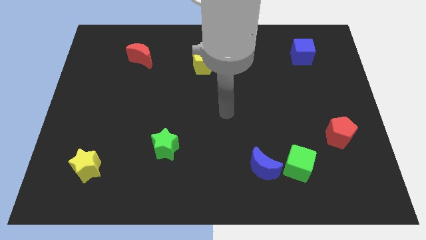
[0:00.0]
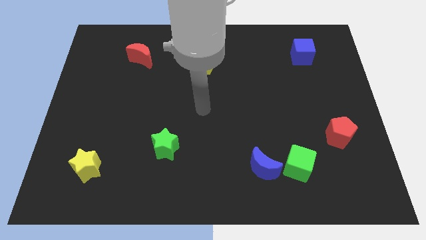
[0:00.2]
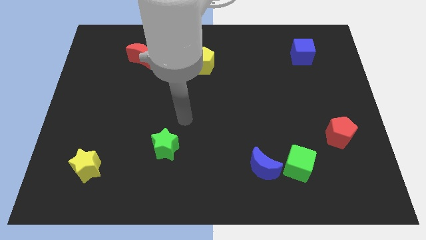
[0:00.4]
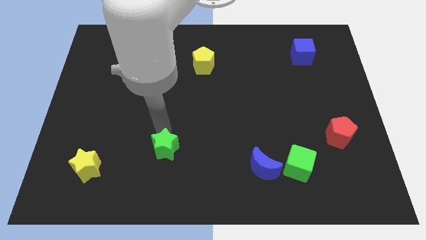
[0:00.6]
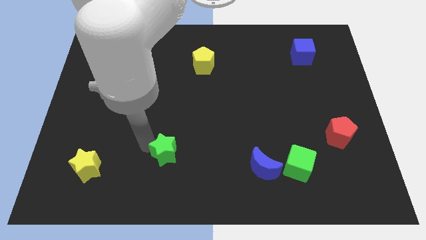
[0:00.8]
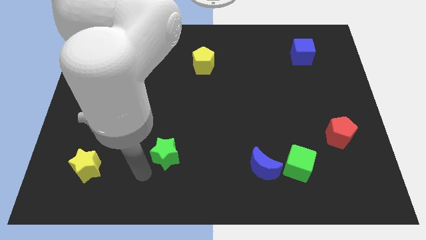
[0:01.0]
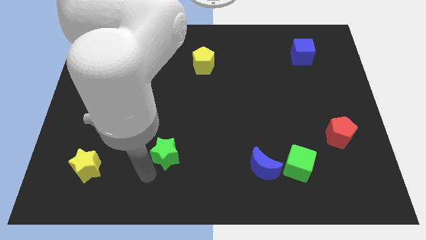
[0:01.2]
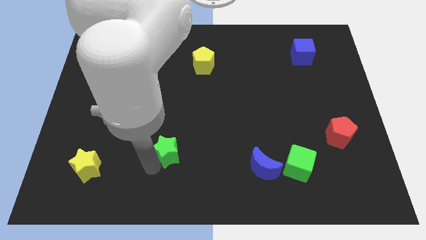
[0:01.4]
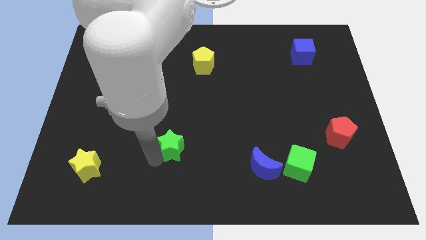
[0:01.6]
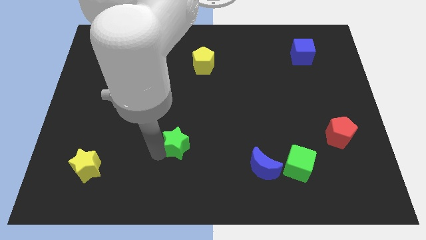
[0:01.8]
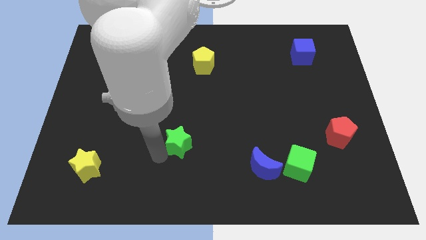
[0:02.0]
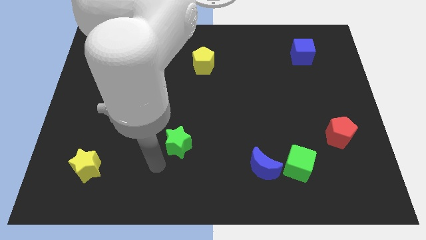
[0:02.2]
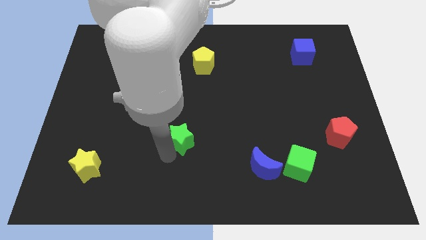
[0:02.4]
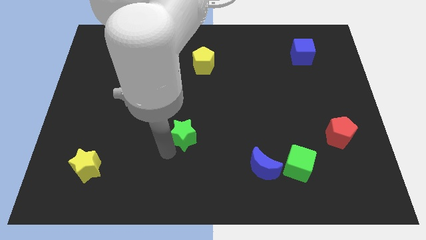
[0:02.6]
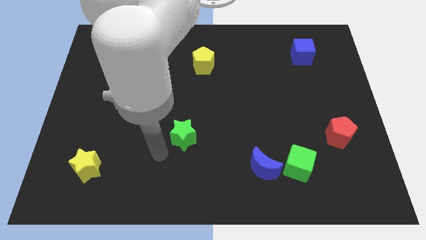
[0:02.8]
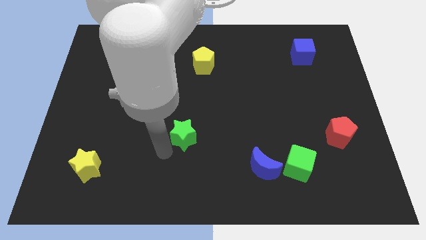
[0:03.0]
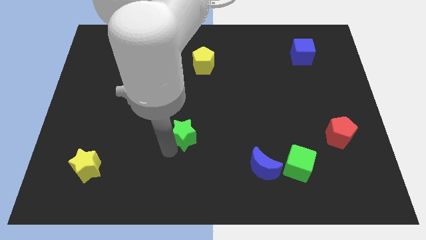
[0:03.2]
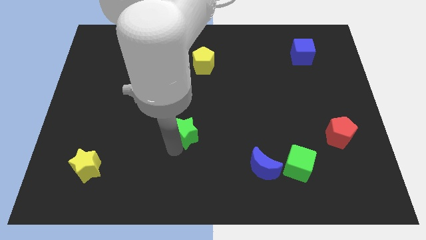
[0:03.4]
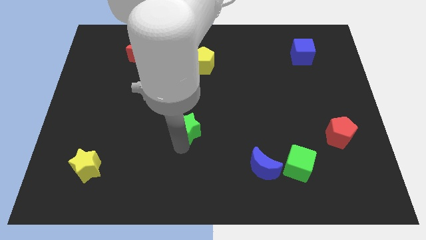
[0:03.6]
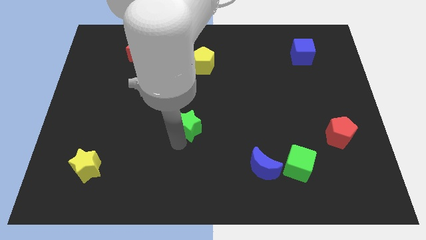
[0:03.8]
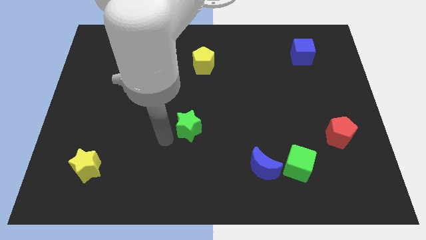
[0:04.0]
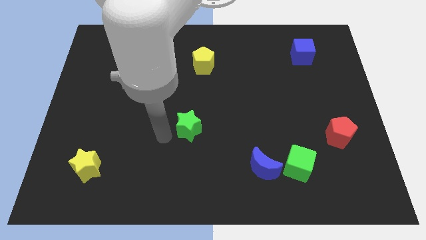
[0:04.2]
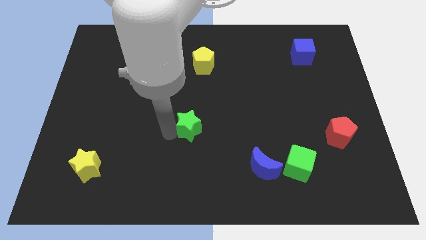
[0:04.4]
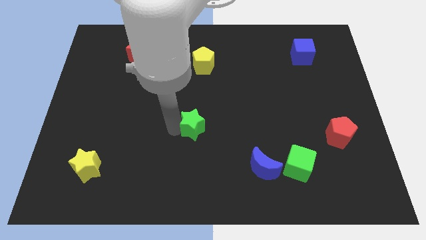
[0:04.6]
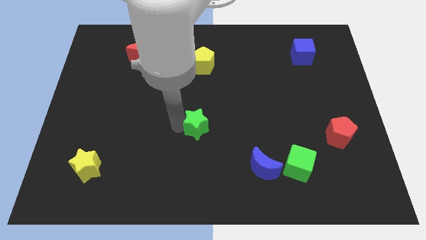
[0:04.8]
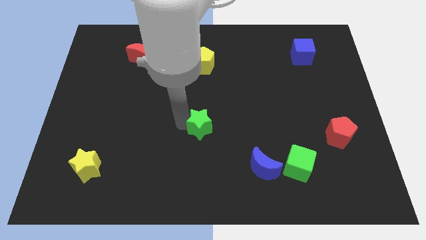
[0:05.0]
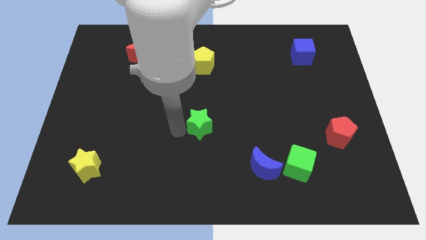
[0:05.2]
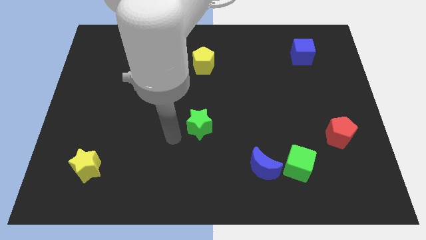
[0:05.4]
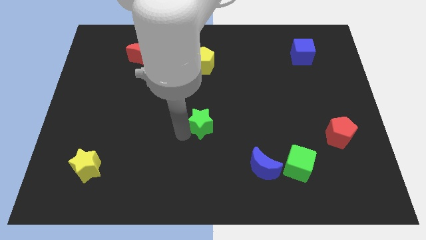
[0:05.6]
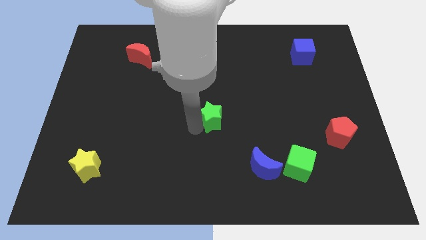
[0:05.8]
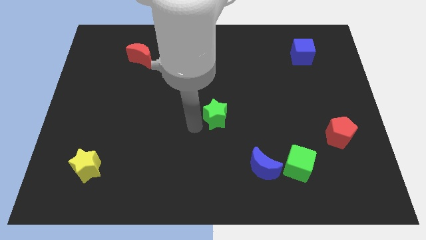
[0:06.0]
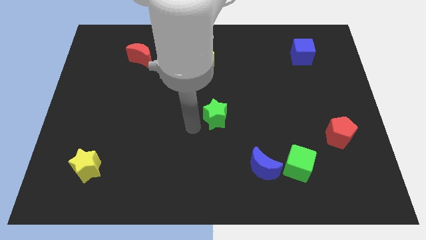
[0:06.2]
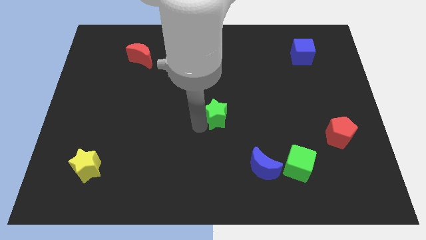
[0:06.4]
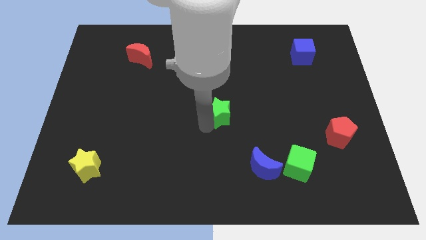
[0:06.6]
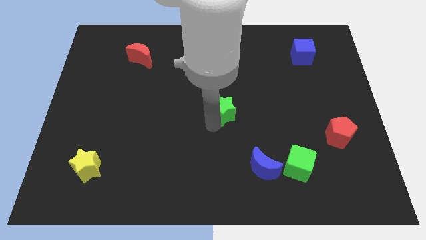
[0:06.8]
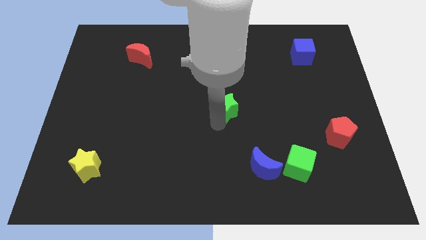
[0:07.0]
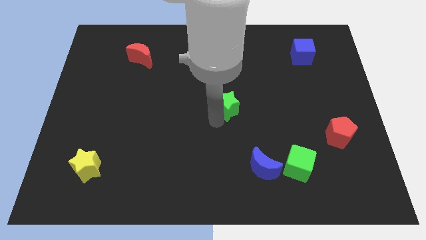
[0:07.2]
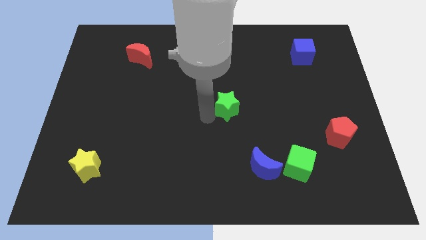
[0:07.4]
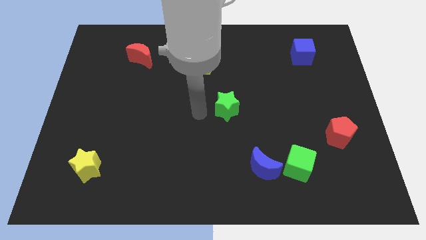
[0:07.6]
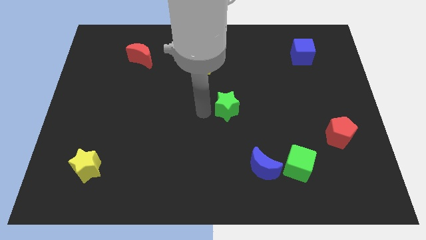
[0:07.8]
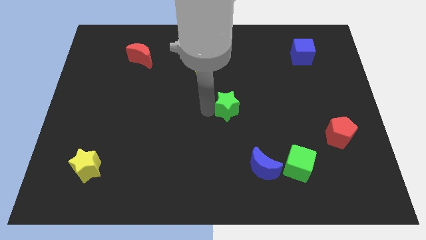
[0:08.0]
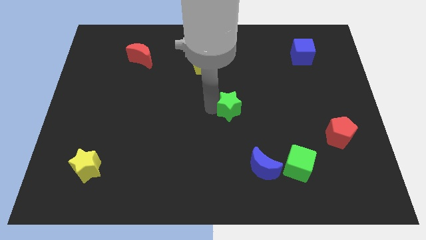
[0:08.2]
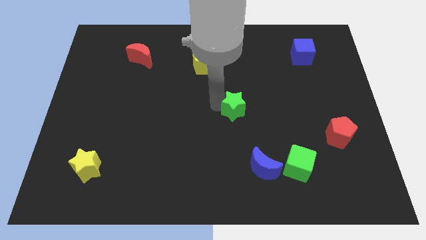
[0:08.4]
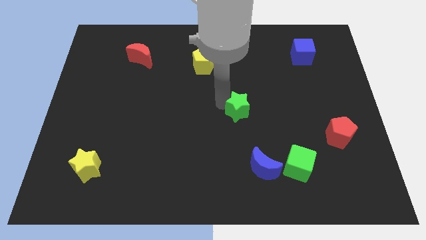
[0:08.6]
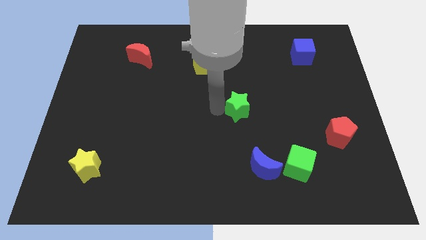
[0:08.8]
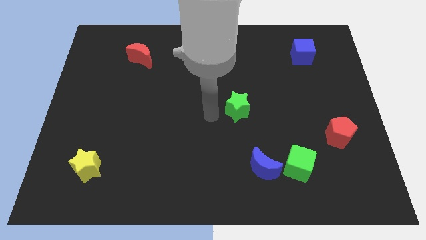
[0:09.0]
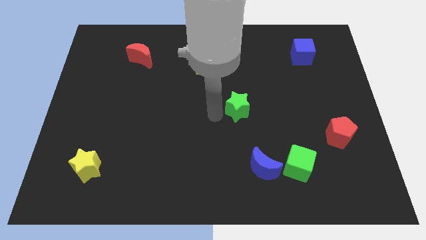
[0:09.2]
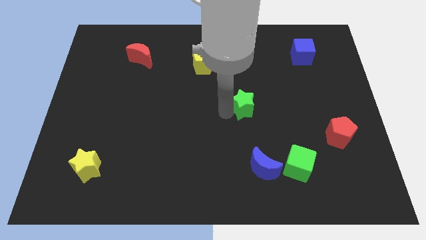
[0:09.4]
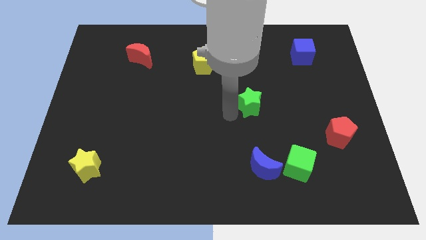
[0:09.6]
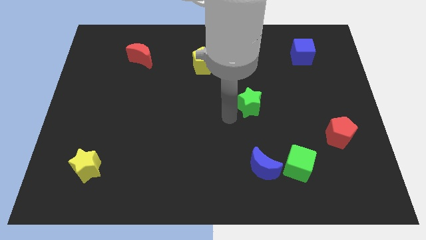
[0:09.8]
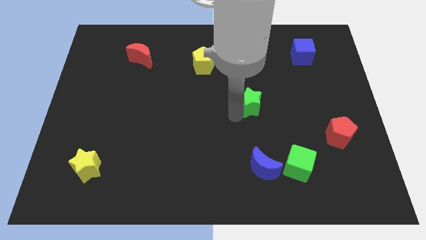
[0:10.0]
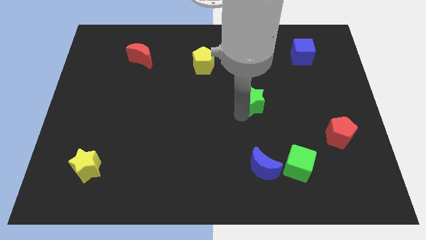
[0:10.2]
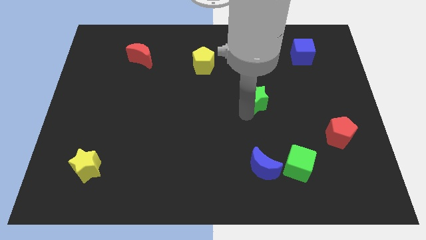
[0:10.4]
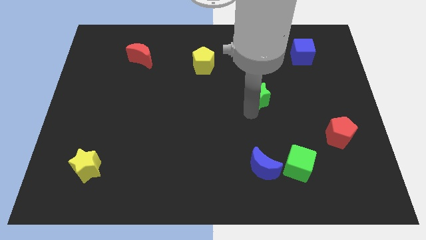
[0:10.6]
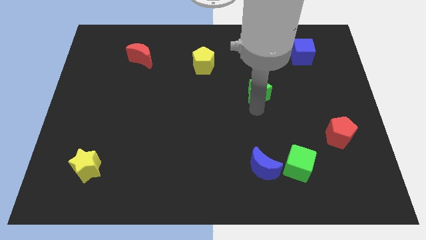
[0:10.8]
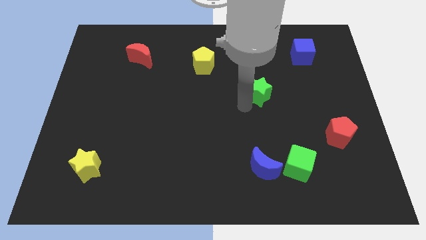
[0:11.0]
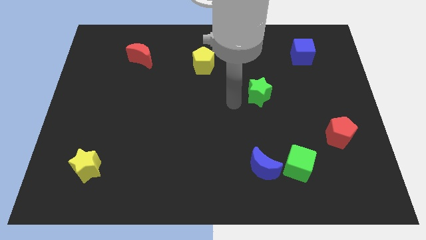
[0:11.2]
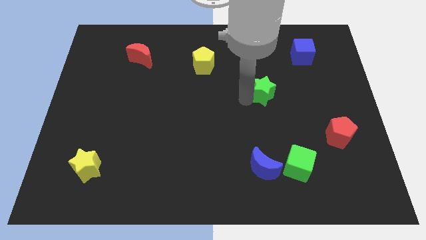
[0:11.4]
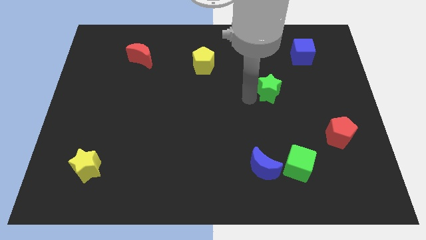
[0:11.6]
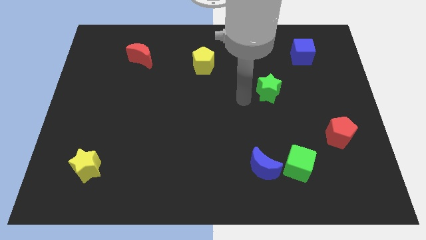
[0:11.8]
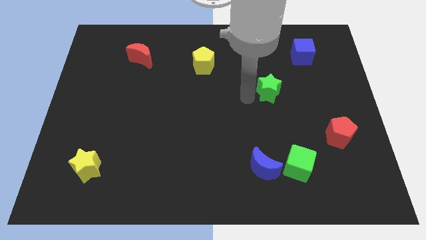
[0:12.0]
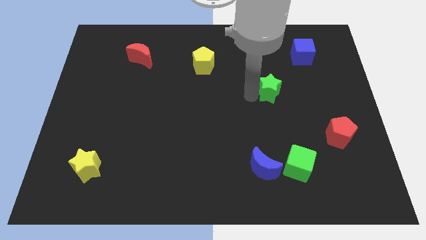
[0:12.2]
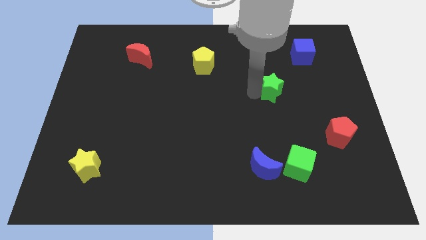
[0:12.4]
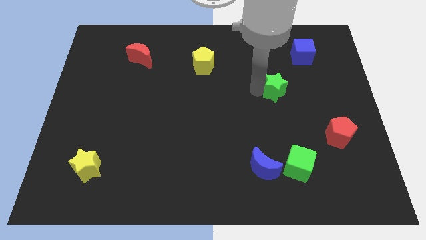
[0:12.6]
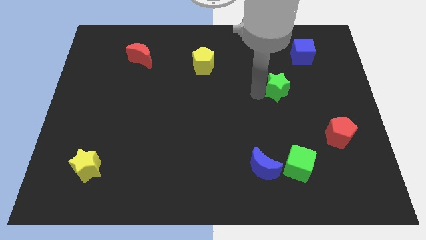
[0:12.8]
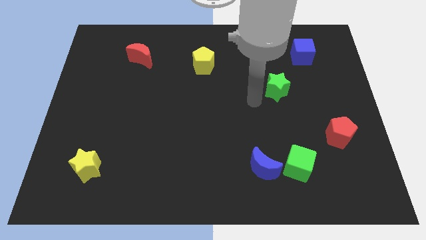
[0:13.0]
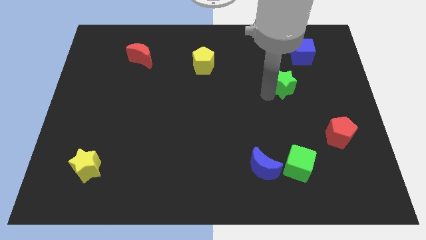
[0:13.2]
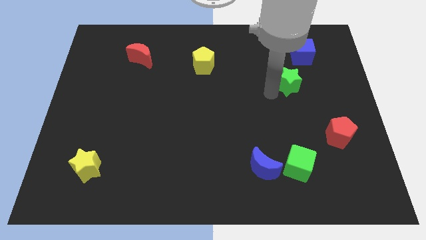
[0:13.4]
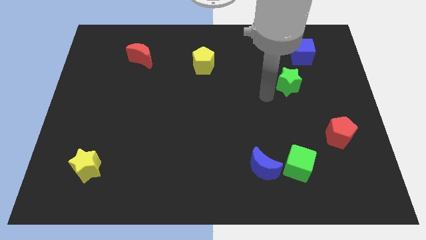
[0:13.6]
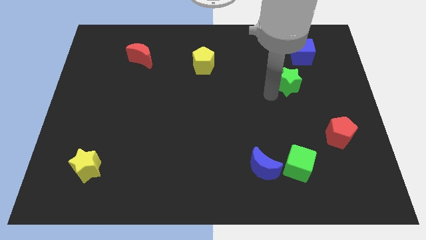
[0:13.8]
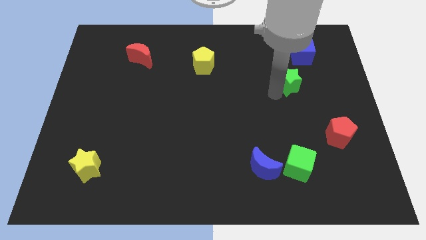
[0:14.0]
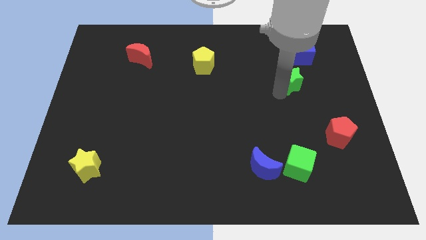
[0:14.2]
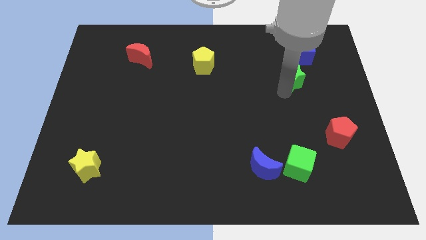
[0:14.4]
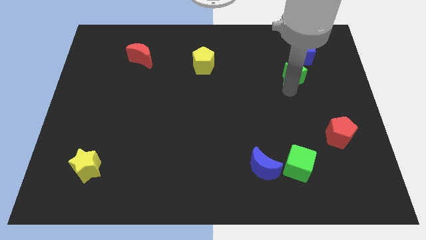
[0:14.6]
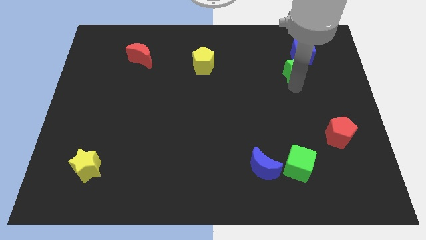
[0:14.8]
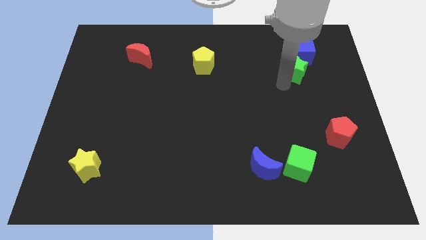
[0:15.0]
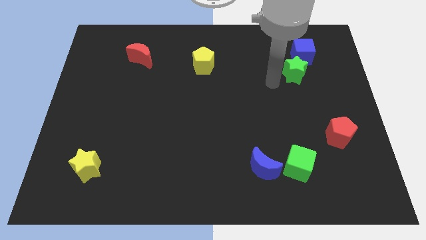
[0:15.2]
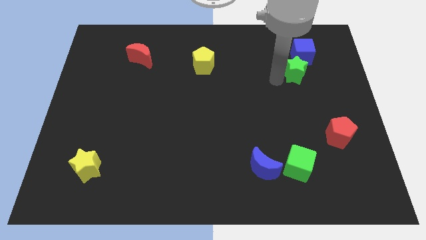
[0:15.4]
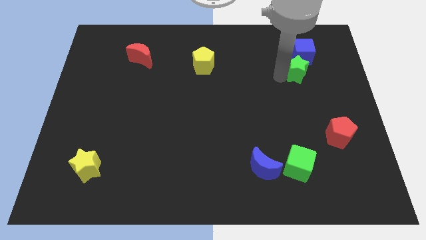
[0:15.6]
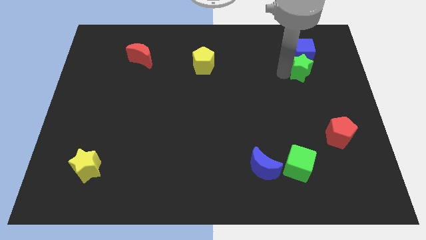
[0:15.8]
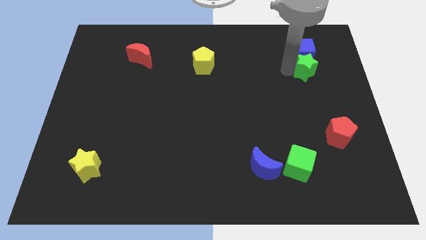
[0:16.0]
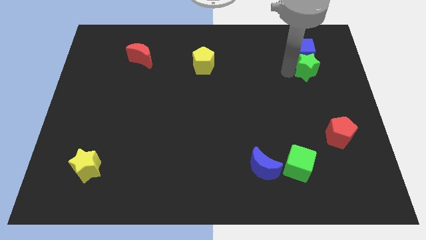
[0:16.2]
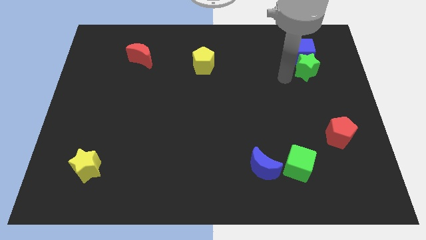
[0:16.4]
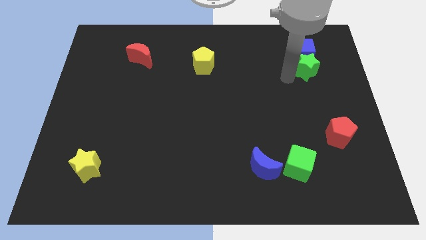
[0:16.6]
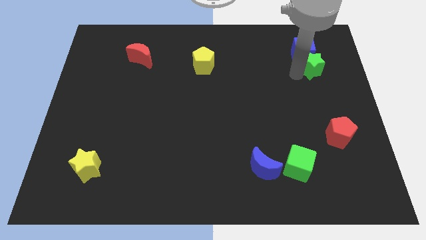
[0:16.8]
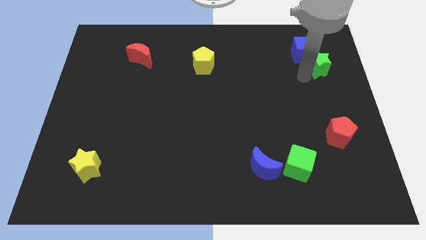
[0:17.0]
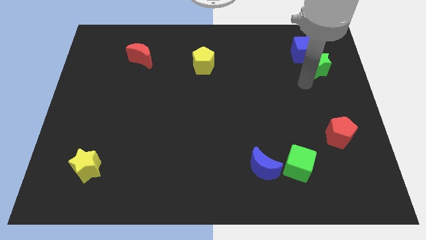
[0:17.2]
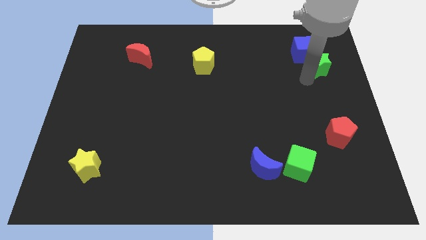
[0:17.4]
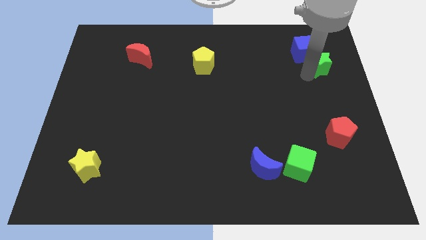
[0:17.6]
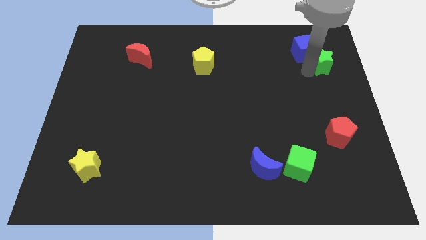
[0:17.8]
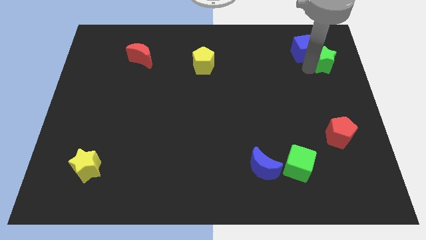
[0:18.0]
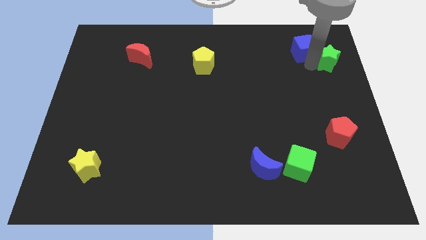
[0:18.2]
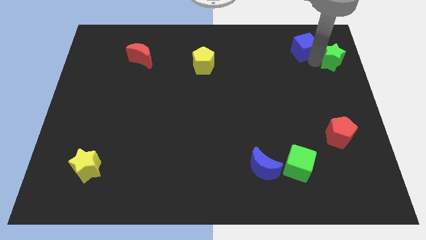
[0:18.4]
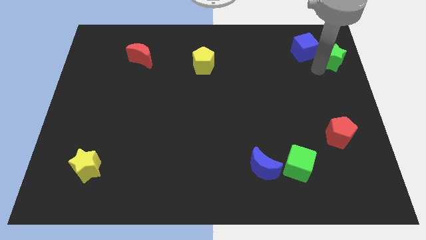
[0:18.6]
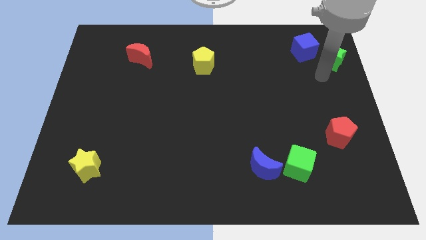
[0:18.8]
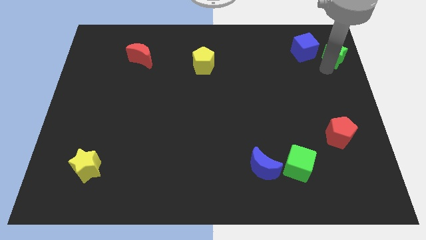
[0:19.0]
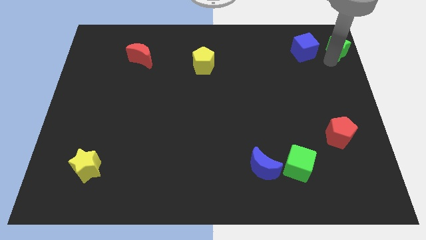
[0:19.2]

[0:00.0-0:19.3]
put the green star to the upper right corner
